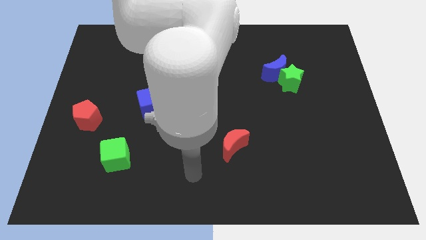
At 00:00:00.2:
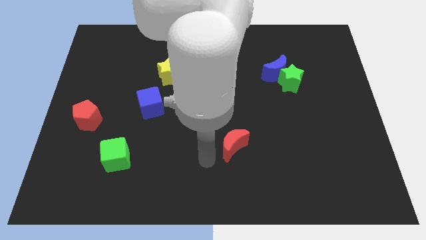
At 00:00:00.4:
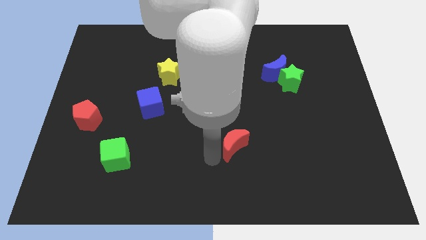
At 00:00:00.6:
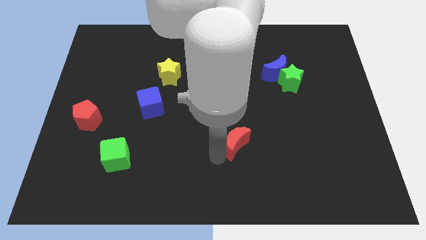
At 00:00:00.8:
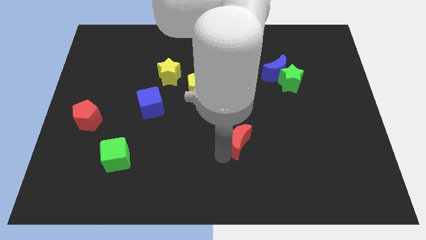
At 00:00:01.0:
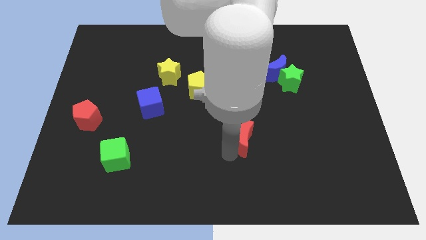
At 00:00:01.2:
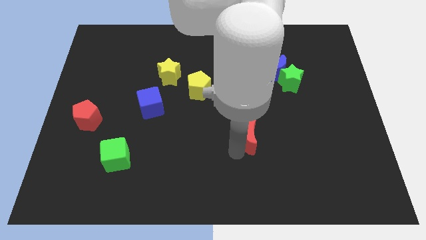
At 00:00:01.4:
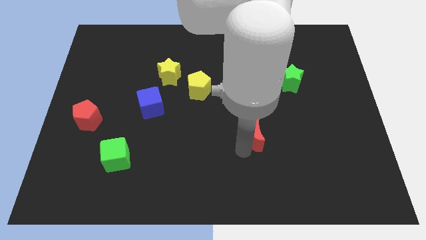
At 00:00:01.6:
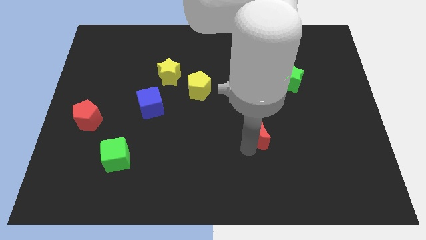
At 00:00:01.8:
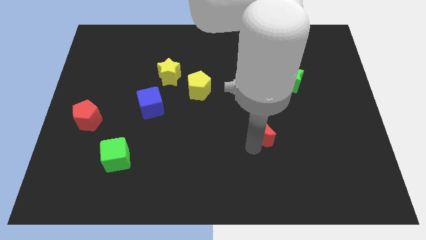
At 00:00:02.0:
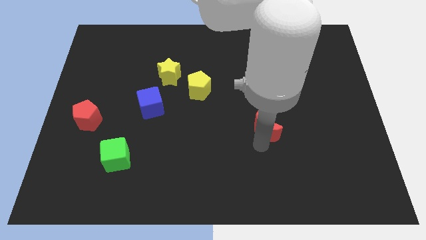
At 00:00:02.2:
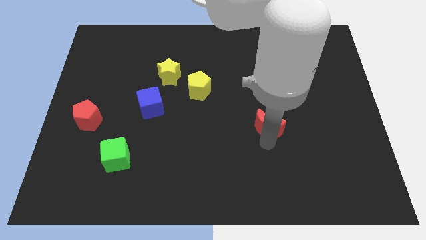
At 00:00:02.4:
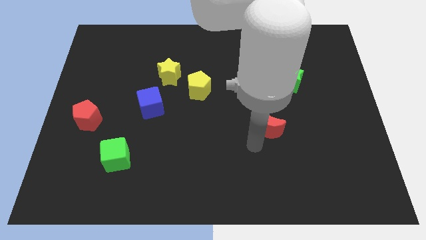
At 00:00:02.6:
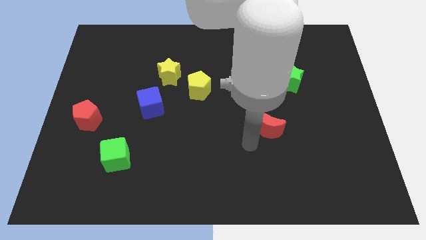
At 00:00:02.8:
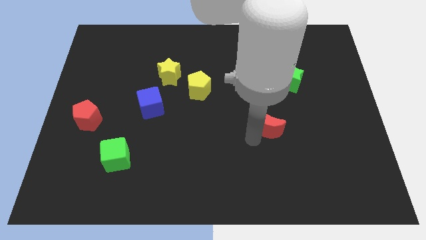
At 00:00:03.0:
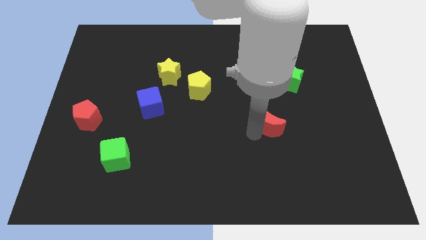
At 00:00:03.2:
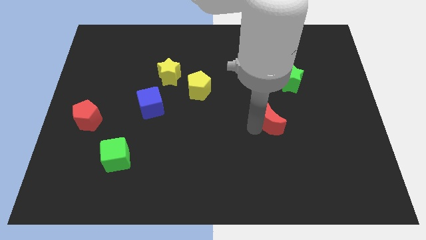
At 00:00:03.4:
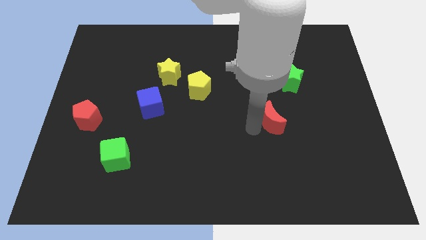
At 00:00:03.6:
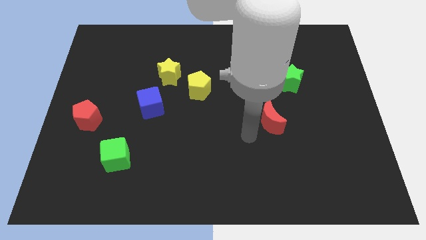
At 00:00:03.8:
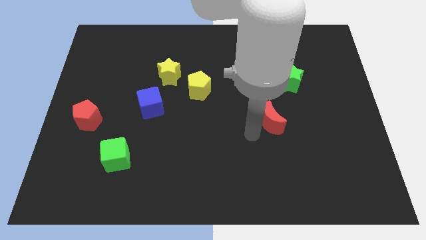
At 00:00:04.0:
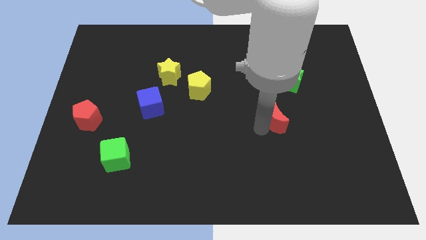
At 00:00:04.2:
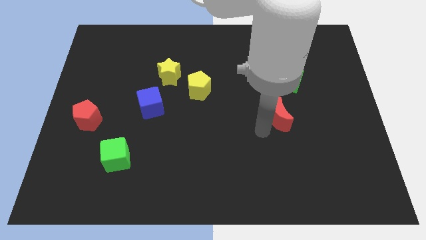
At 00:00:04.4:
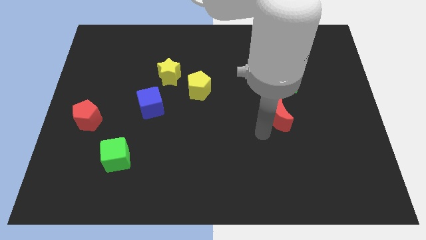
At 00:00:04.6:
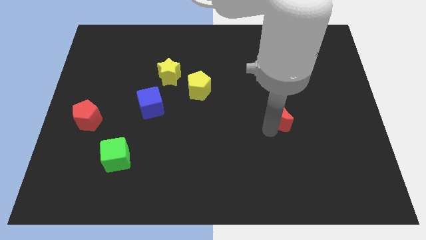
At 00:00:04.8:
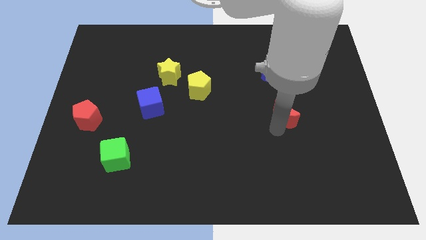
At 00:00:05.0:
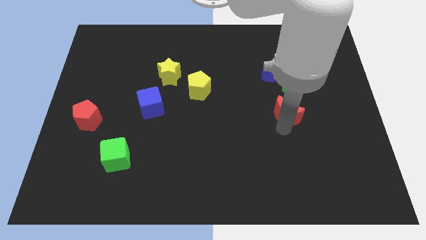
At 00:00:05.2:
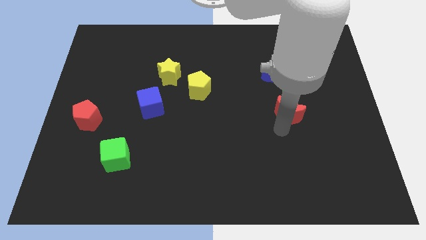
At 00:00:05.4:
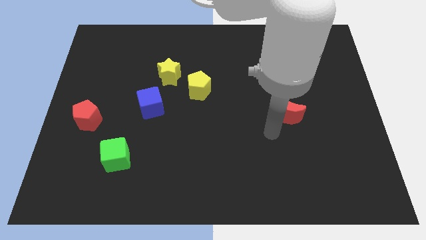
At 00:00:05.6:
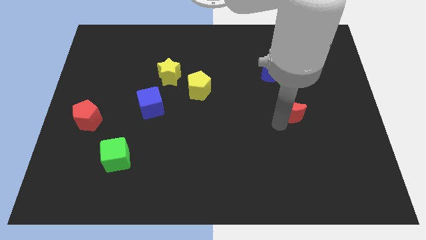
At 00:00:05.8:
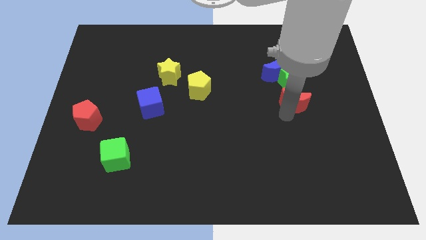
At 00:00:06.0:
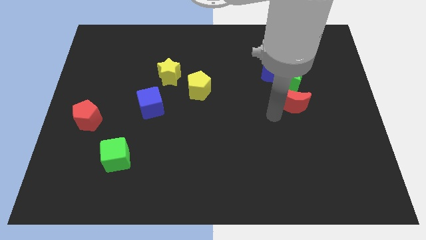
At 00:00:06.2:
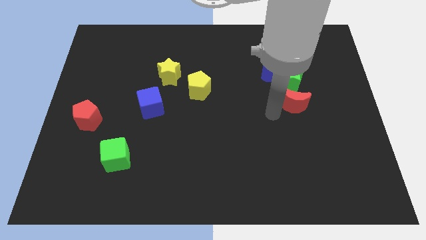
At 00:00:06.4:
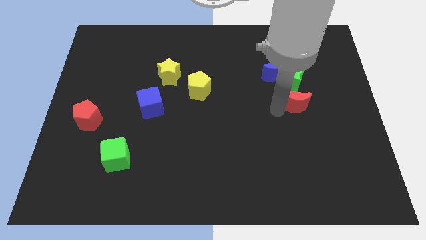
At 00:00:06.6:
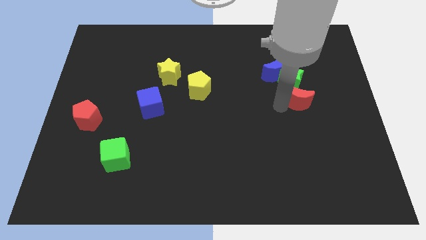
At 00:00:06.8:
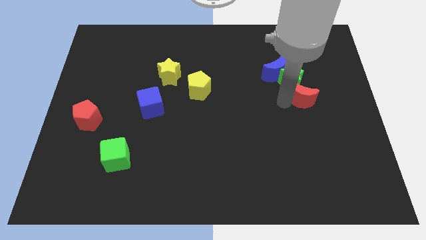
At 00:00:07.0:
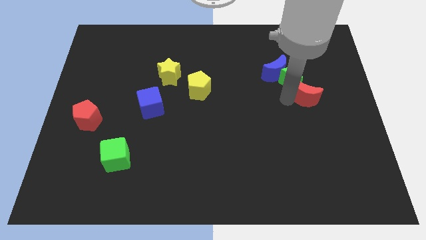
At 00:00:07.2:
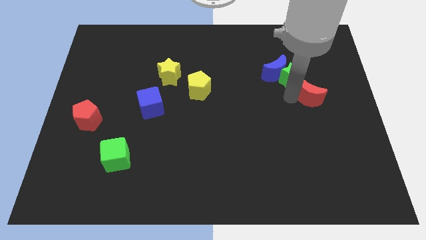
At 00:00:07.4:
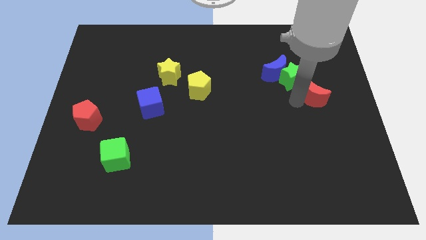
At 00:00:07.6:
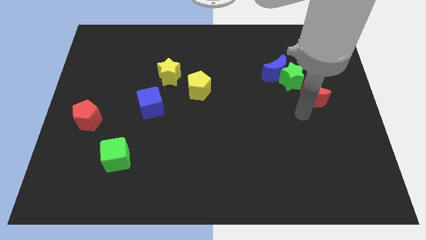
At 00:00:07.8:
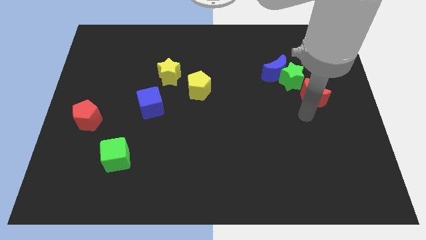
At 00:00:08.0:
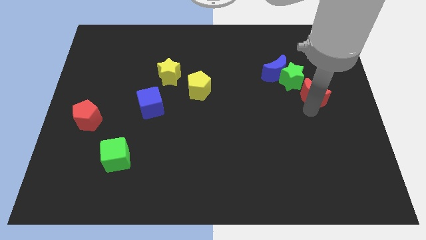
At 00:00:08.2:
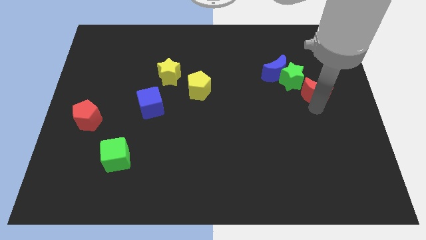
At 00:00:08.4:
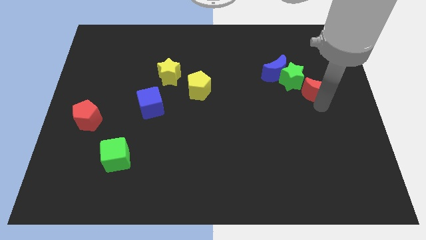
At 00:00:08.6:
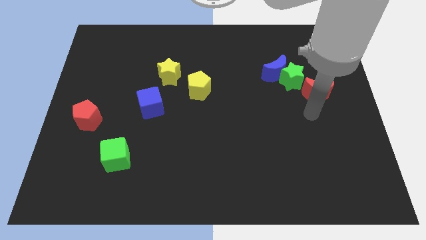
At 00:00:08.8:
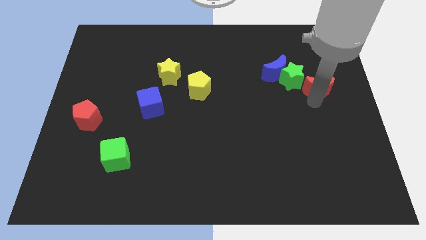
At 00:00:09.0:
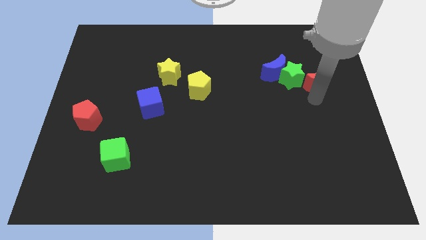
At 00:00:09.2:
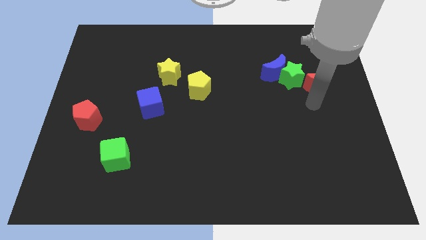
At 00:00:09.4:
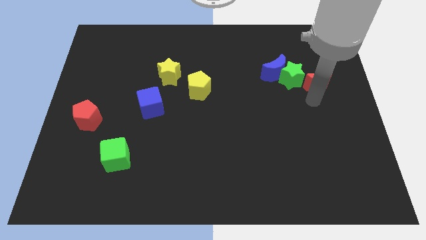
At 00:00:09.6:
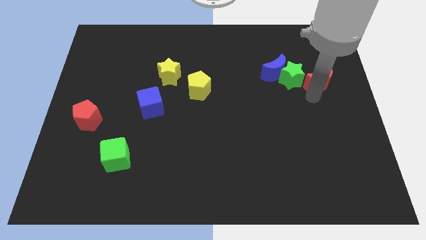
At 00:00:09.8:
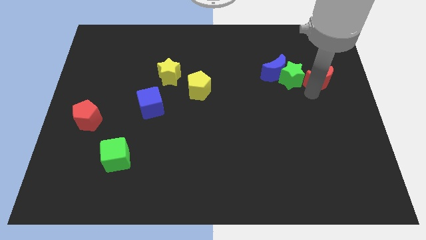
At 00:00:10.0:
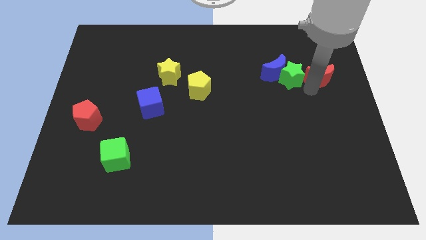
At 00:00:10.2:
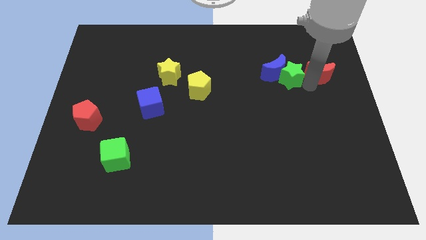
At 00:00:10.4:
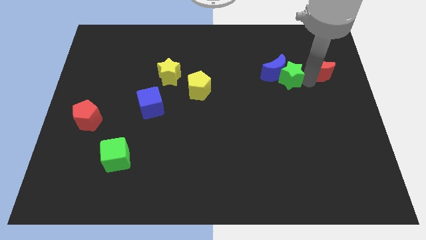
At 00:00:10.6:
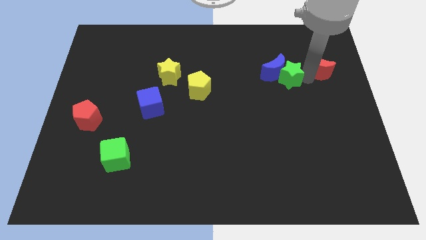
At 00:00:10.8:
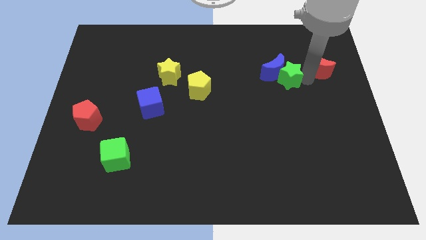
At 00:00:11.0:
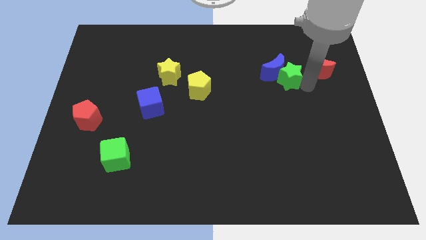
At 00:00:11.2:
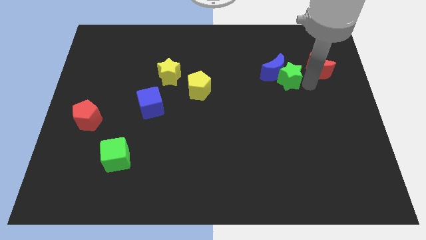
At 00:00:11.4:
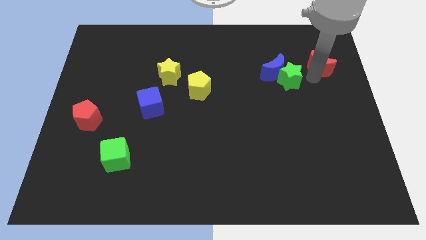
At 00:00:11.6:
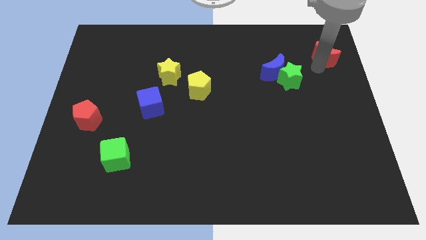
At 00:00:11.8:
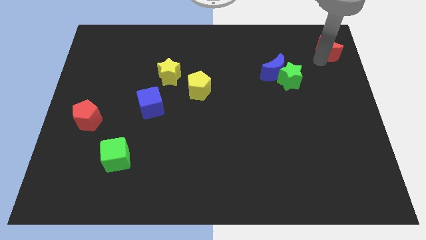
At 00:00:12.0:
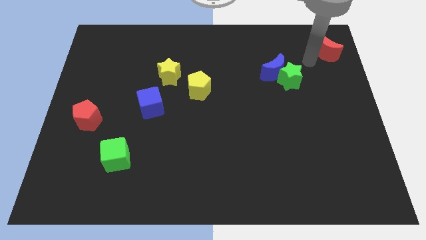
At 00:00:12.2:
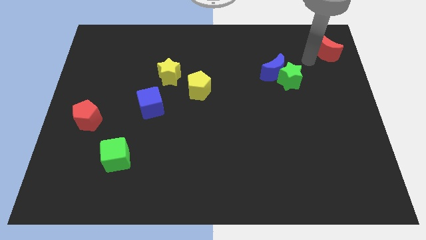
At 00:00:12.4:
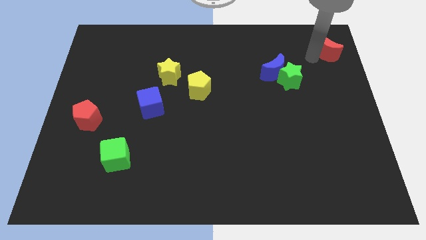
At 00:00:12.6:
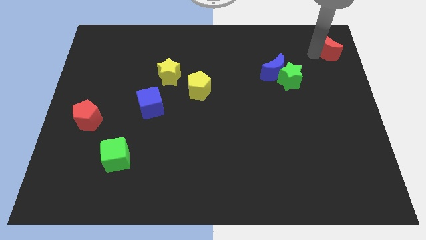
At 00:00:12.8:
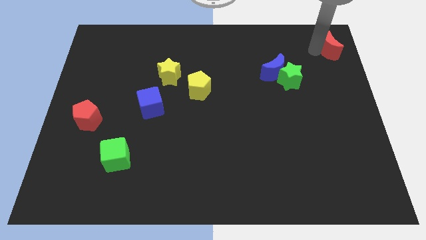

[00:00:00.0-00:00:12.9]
slide the red moon to the top right corner
